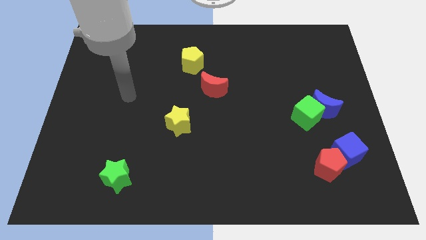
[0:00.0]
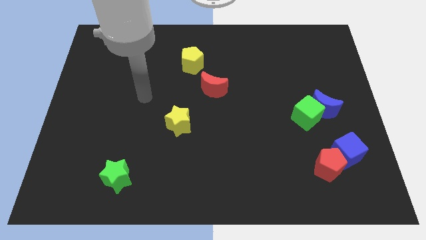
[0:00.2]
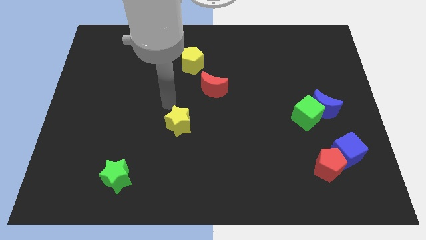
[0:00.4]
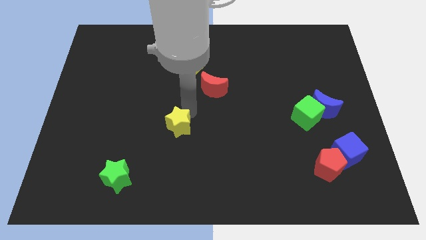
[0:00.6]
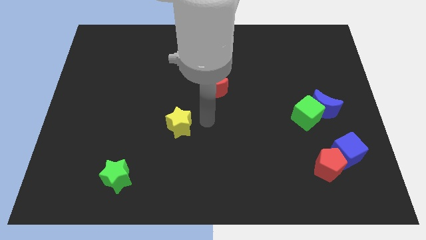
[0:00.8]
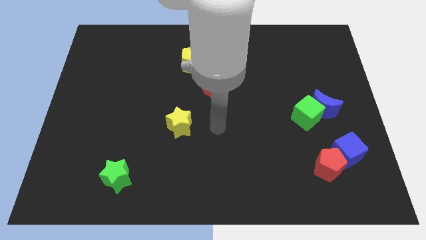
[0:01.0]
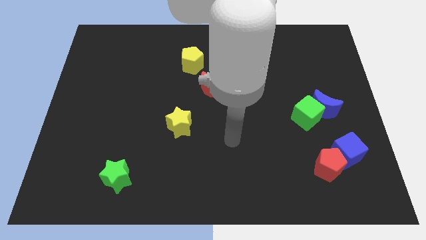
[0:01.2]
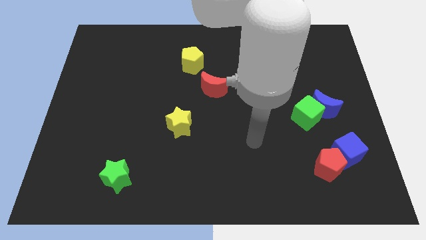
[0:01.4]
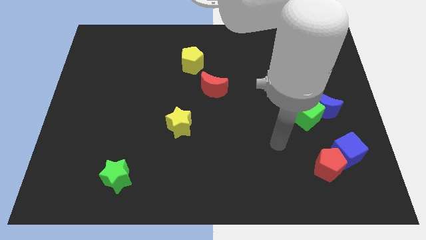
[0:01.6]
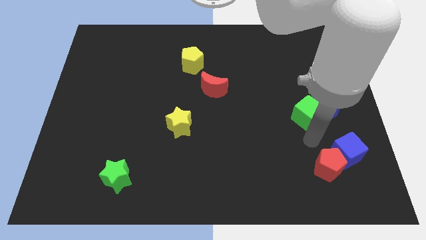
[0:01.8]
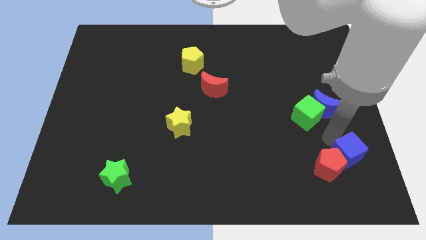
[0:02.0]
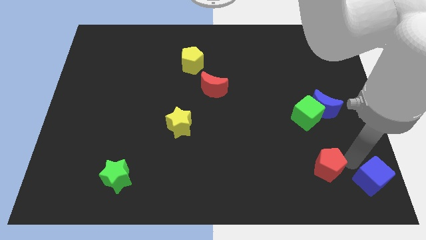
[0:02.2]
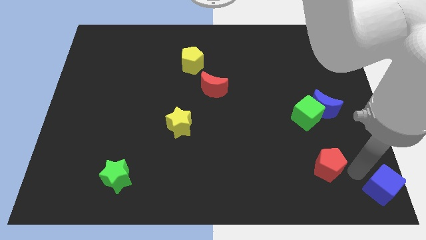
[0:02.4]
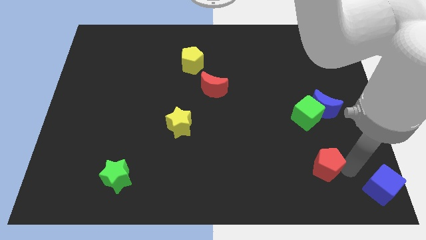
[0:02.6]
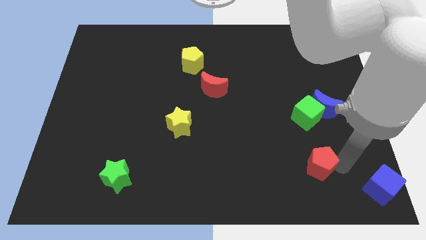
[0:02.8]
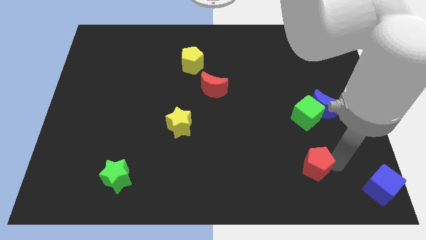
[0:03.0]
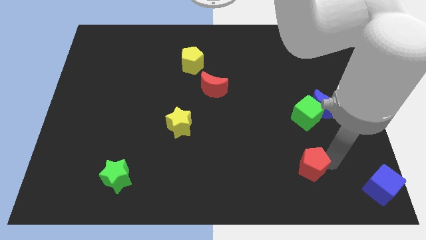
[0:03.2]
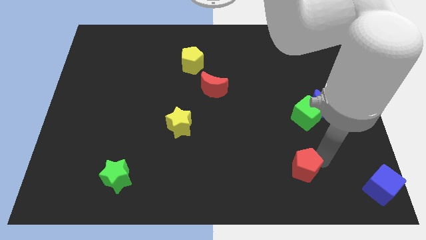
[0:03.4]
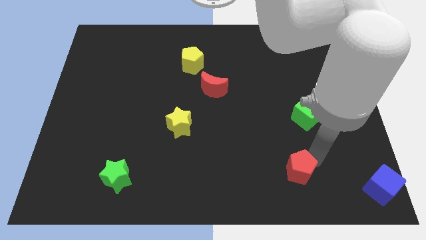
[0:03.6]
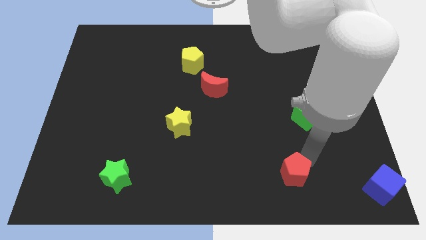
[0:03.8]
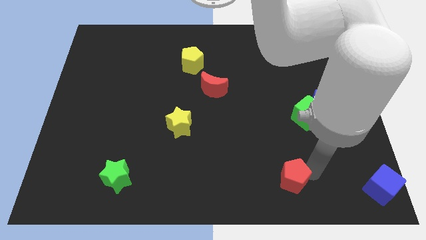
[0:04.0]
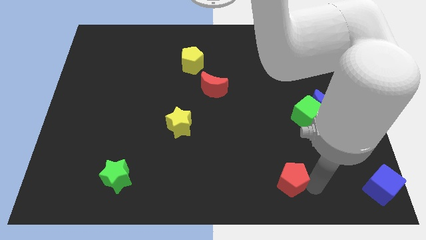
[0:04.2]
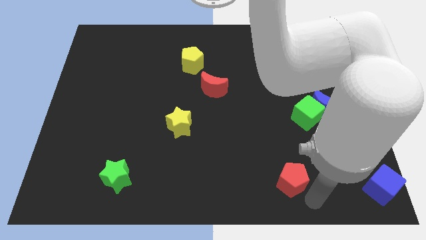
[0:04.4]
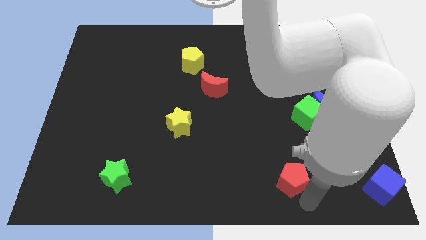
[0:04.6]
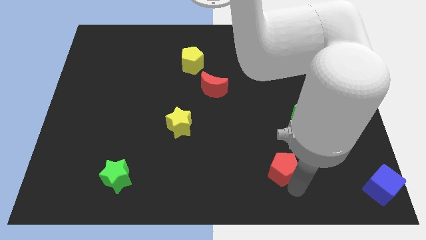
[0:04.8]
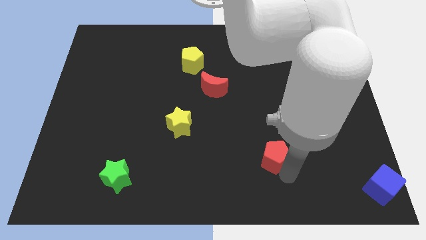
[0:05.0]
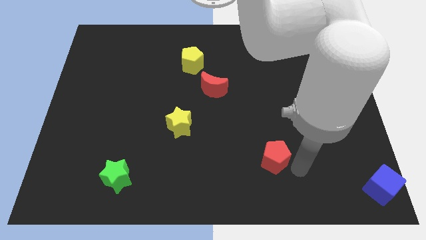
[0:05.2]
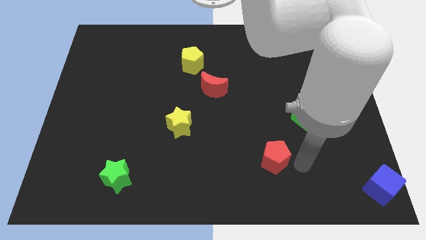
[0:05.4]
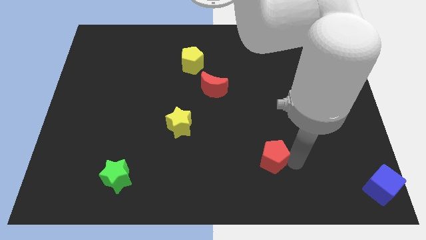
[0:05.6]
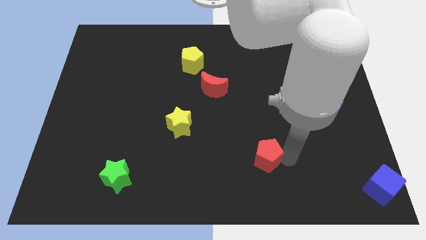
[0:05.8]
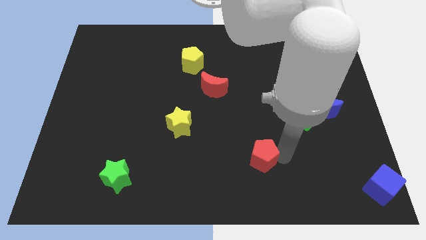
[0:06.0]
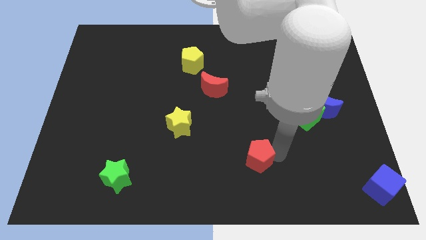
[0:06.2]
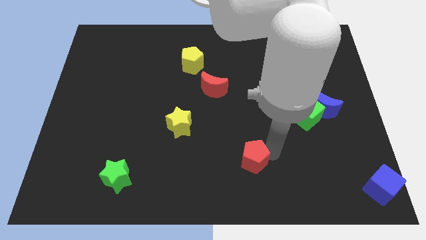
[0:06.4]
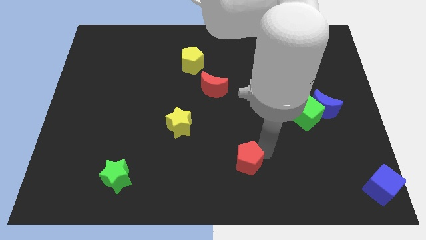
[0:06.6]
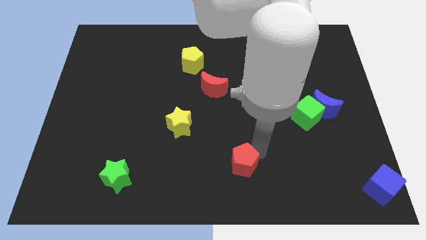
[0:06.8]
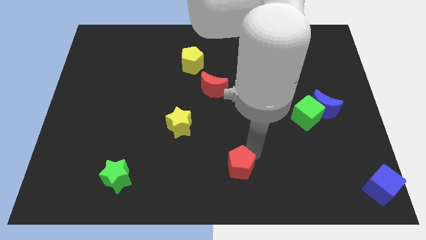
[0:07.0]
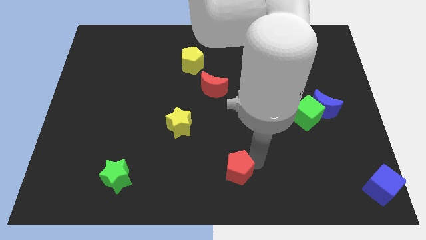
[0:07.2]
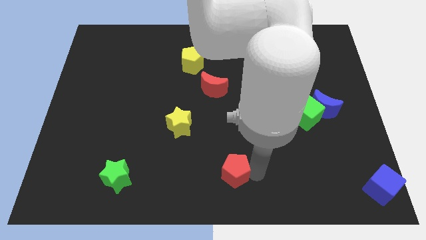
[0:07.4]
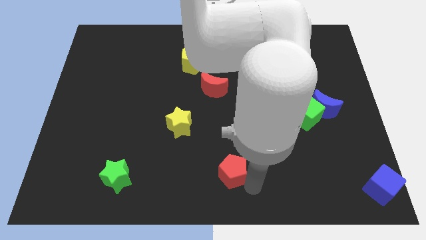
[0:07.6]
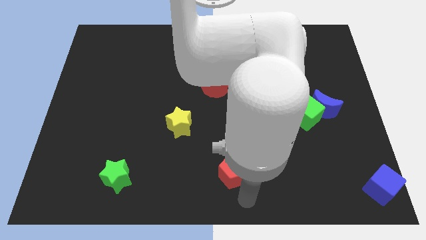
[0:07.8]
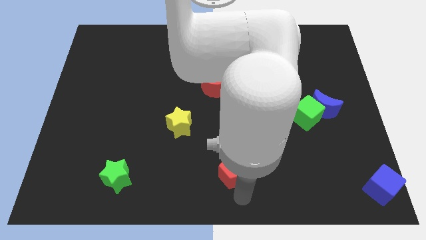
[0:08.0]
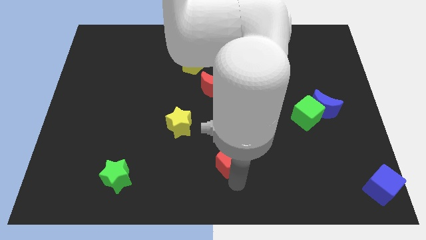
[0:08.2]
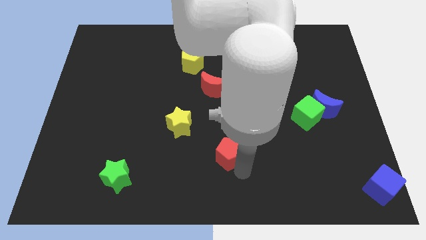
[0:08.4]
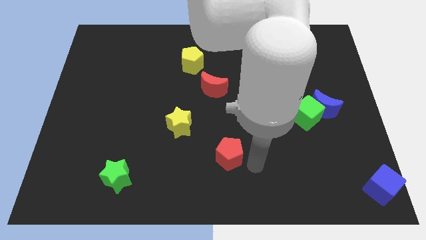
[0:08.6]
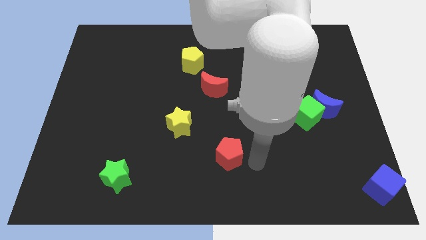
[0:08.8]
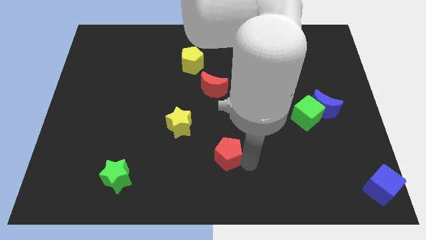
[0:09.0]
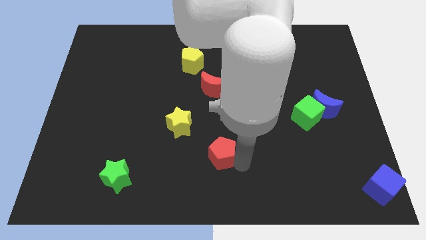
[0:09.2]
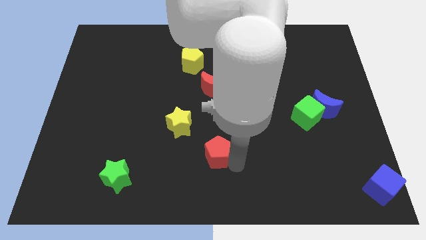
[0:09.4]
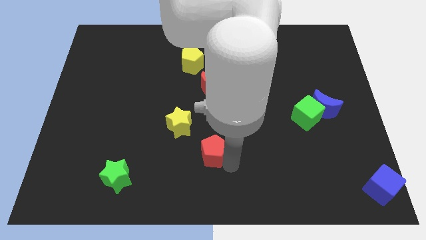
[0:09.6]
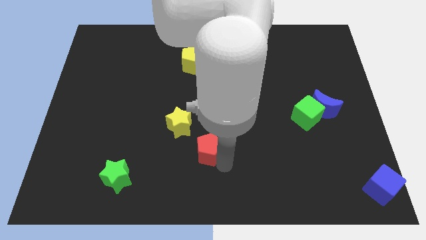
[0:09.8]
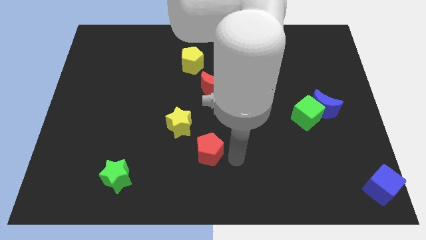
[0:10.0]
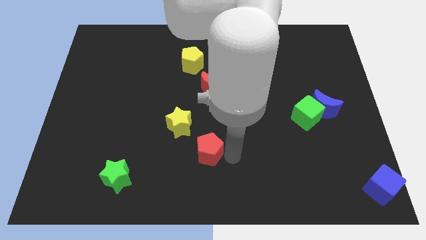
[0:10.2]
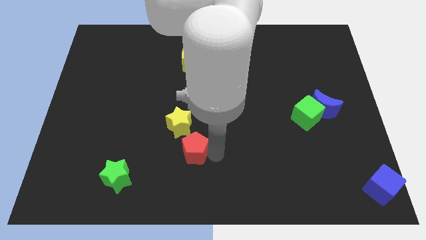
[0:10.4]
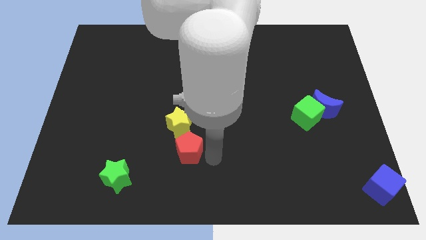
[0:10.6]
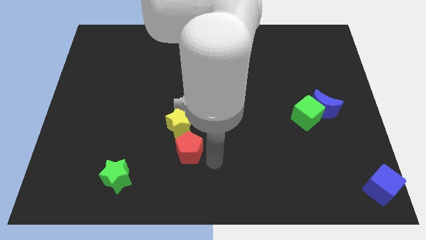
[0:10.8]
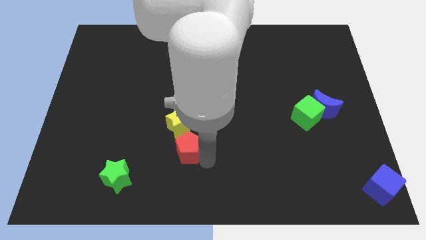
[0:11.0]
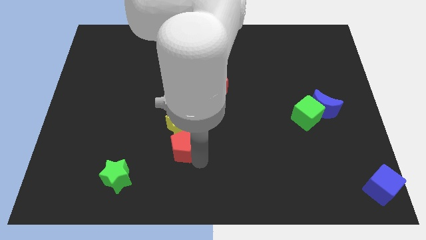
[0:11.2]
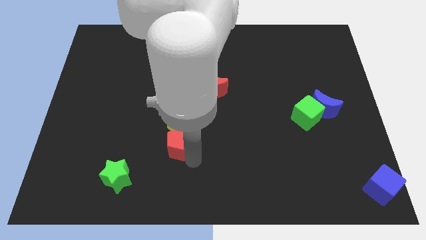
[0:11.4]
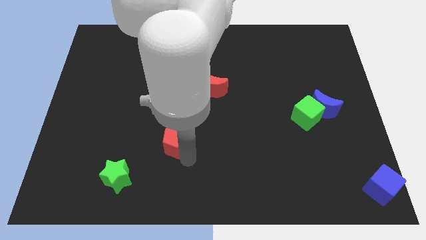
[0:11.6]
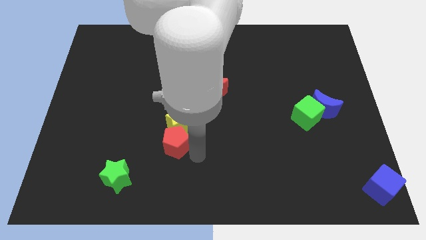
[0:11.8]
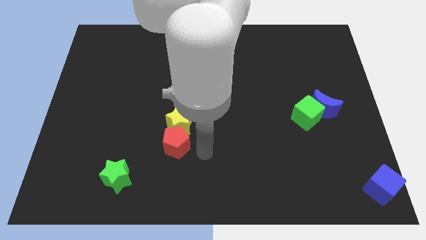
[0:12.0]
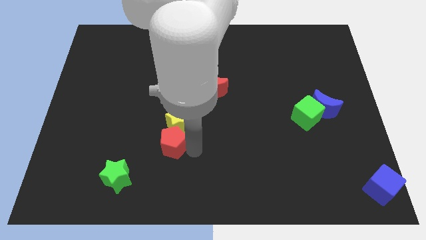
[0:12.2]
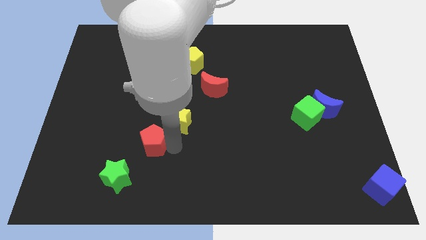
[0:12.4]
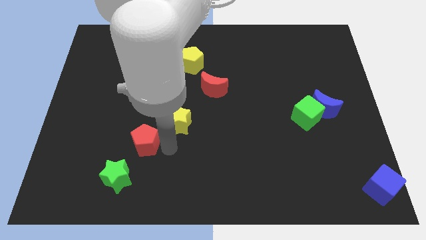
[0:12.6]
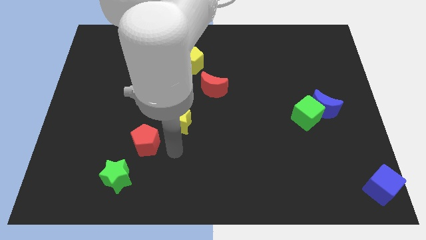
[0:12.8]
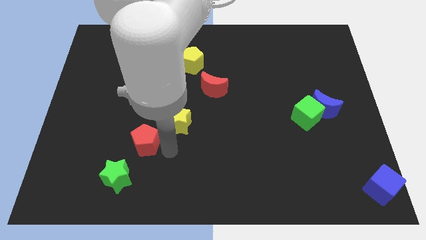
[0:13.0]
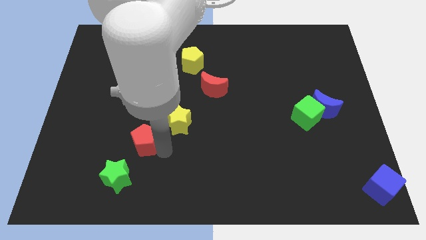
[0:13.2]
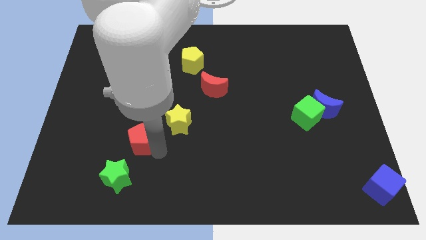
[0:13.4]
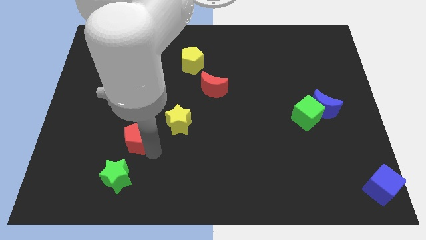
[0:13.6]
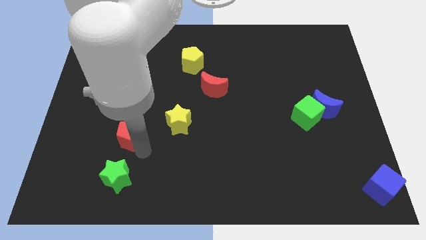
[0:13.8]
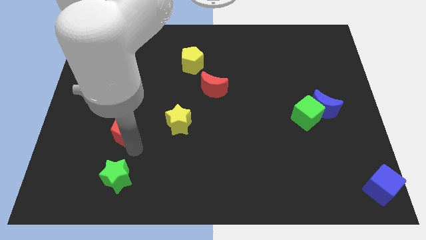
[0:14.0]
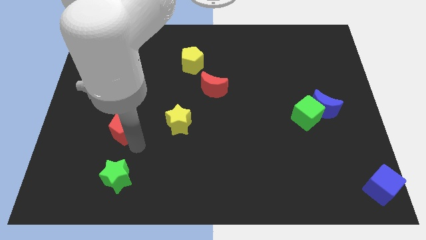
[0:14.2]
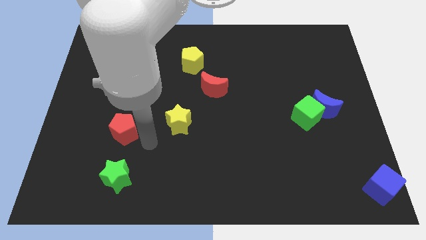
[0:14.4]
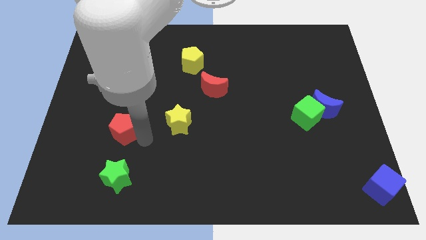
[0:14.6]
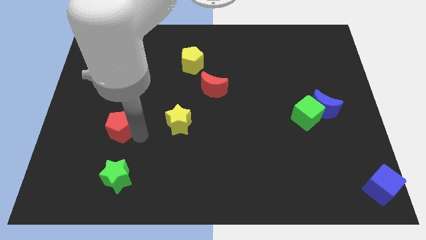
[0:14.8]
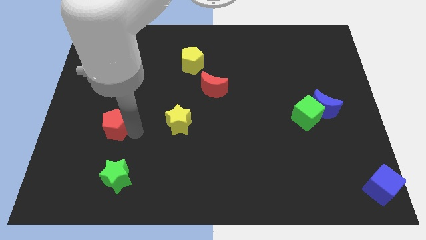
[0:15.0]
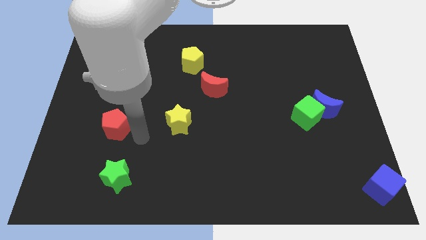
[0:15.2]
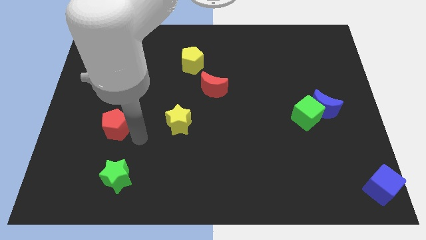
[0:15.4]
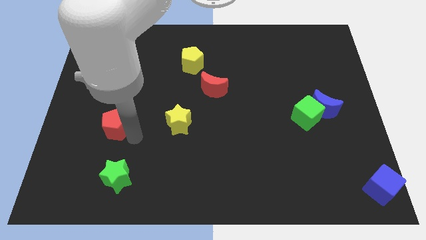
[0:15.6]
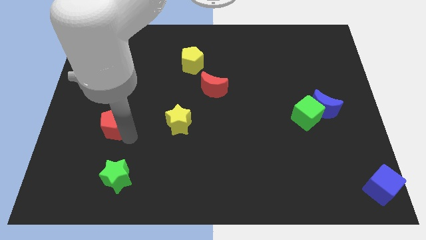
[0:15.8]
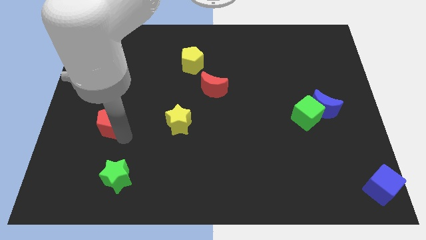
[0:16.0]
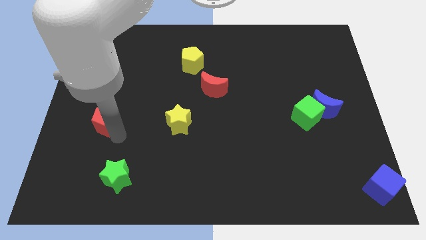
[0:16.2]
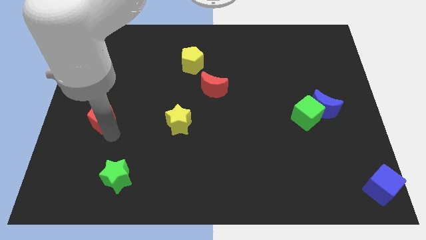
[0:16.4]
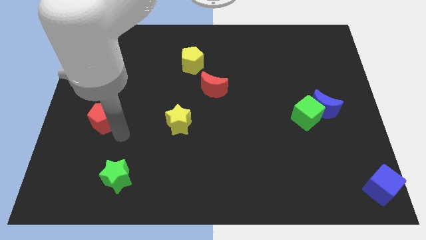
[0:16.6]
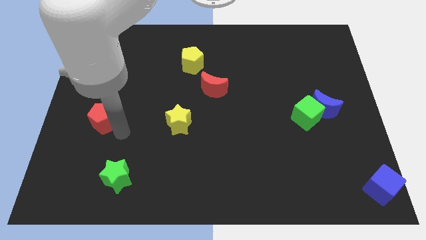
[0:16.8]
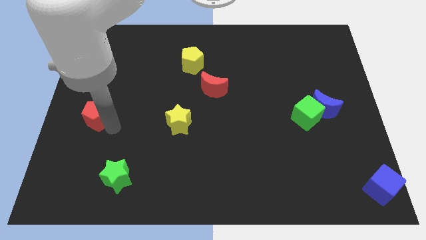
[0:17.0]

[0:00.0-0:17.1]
push the red pentagon to the center left
